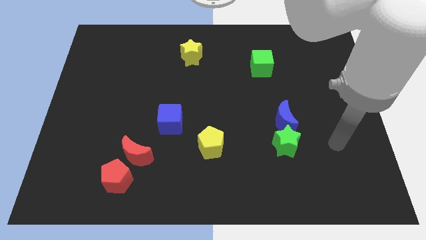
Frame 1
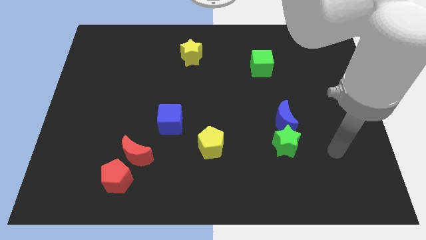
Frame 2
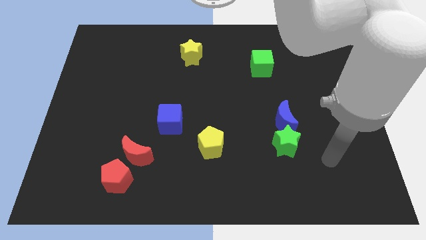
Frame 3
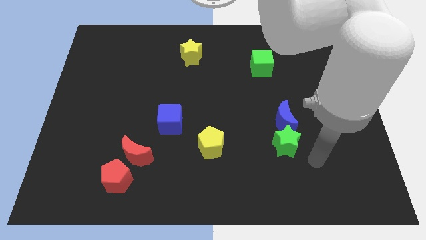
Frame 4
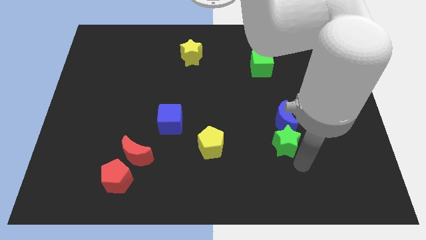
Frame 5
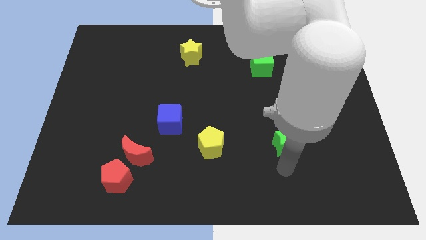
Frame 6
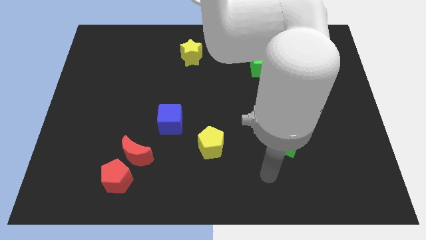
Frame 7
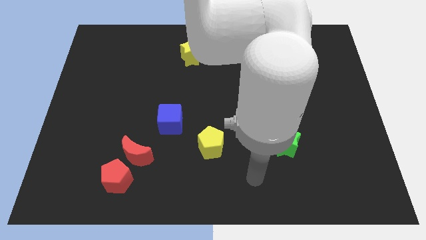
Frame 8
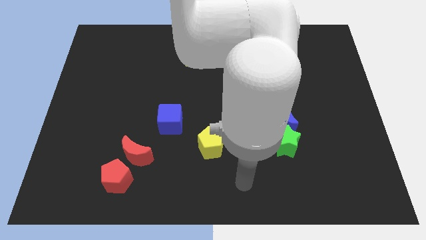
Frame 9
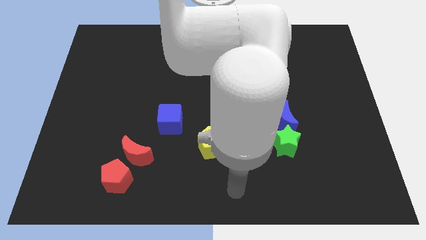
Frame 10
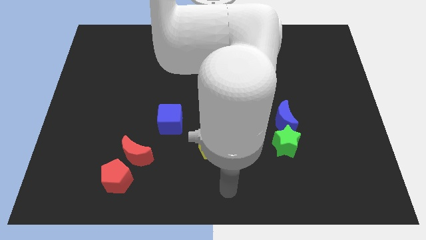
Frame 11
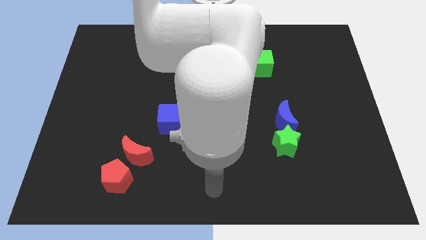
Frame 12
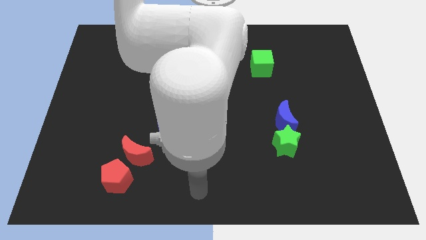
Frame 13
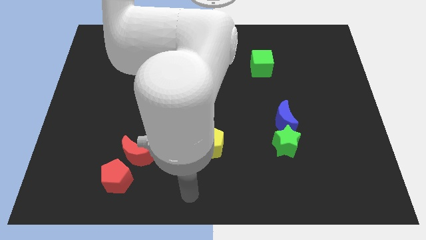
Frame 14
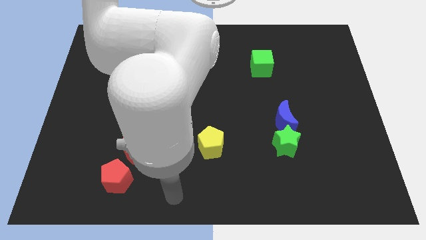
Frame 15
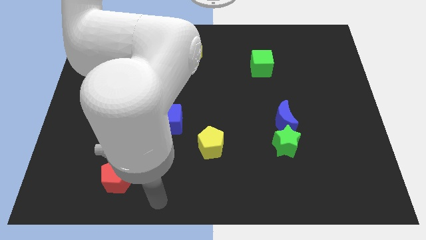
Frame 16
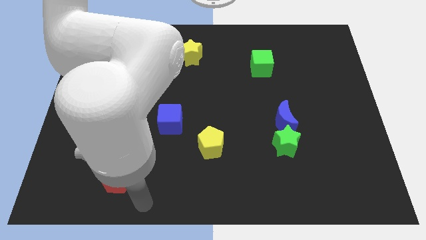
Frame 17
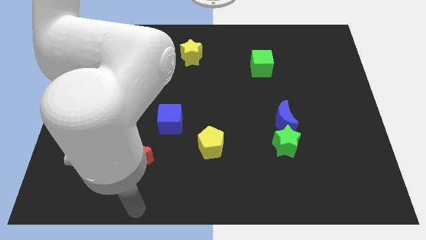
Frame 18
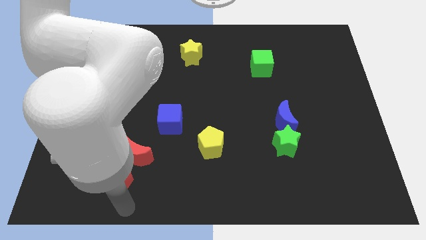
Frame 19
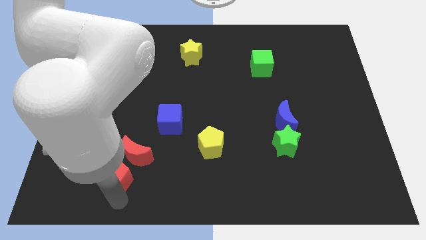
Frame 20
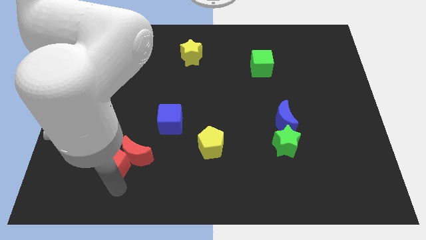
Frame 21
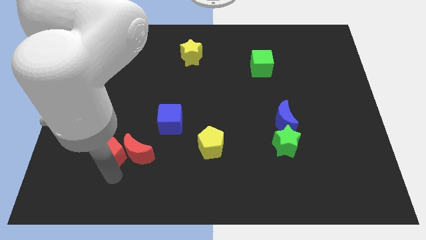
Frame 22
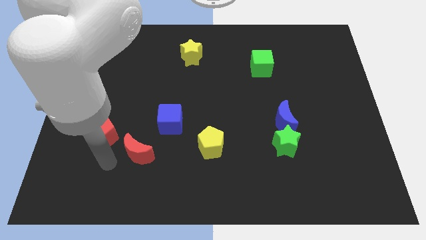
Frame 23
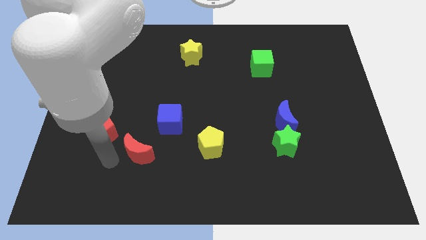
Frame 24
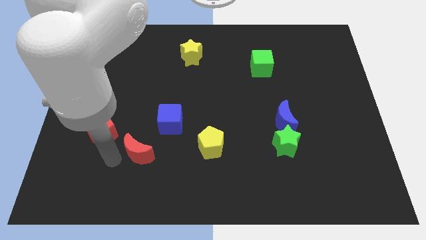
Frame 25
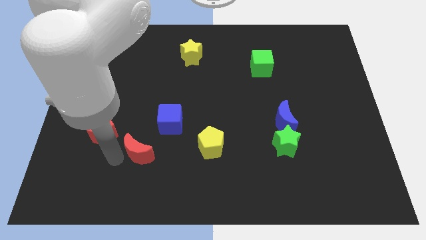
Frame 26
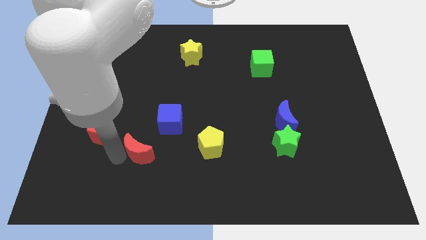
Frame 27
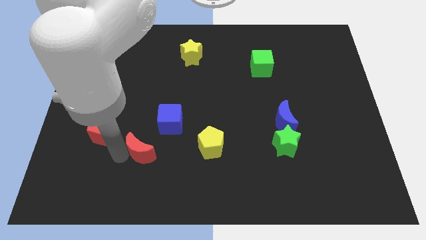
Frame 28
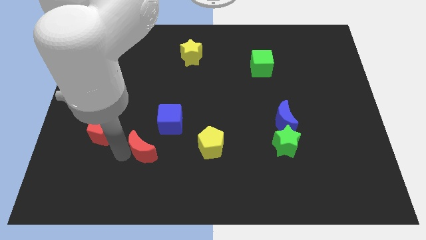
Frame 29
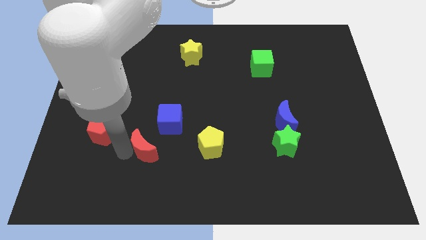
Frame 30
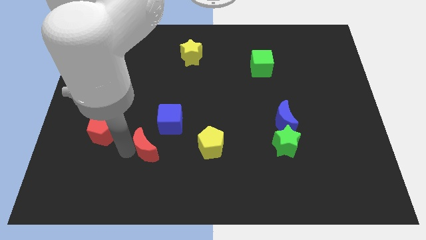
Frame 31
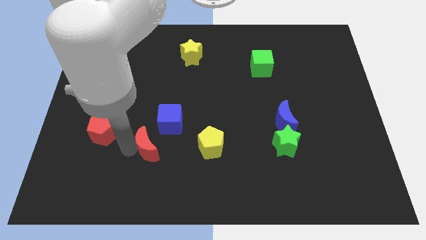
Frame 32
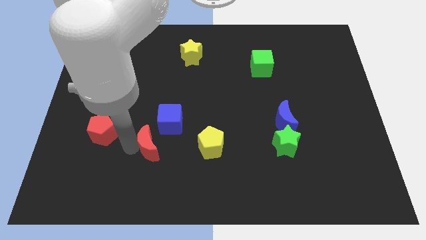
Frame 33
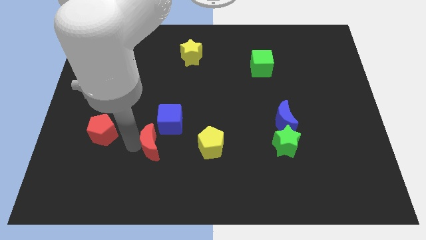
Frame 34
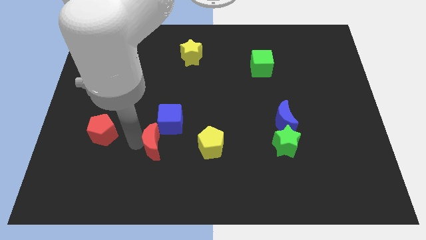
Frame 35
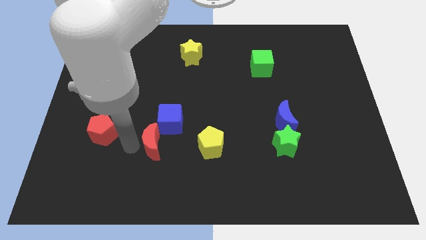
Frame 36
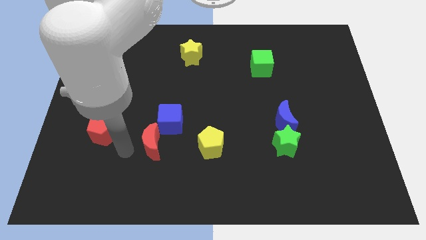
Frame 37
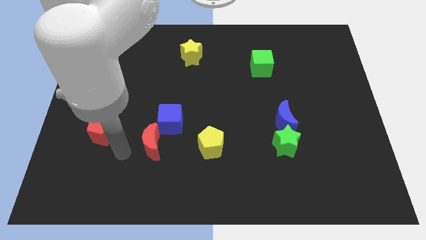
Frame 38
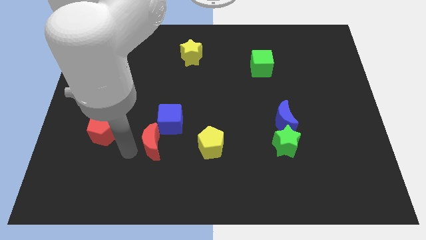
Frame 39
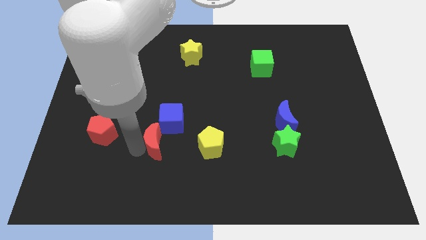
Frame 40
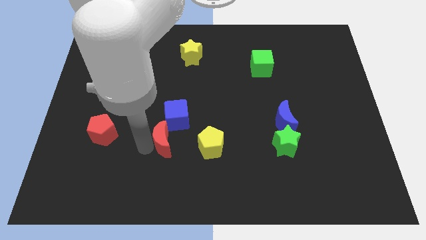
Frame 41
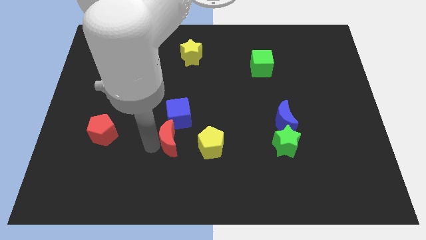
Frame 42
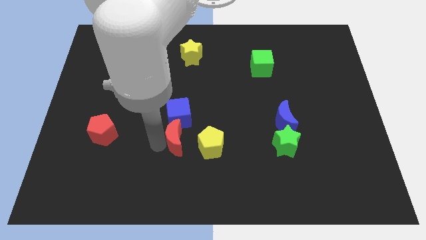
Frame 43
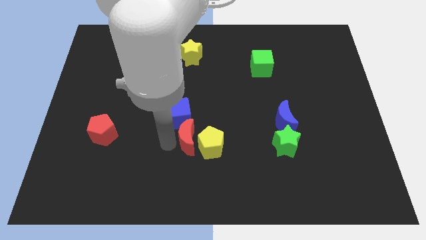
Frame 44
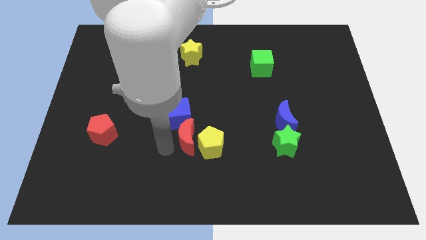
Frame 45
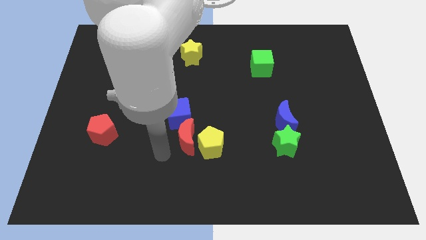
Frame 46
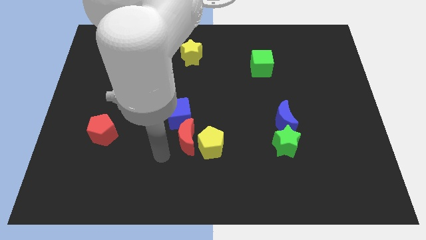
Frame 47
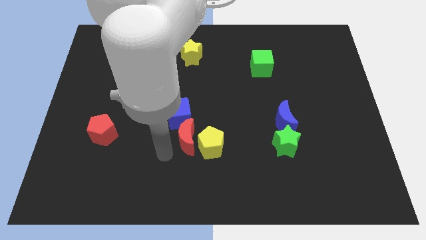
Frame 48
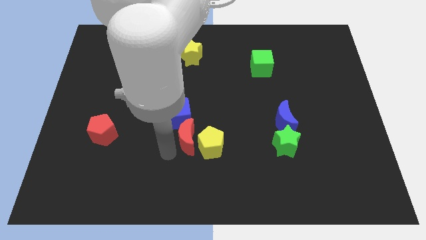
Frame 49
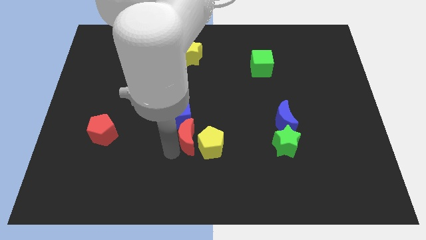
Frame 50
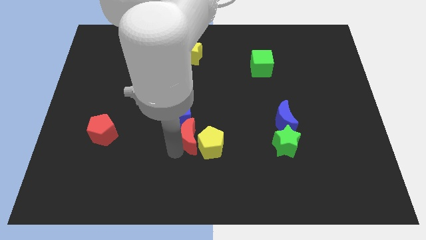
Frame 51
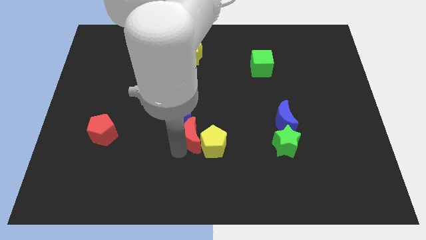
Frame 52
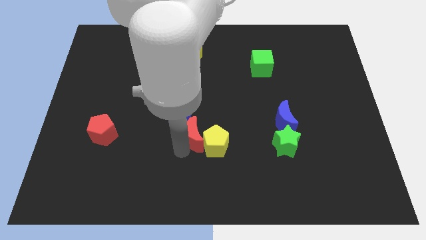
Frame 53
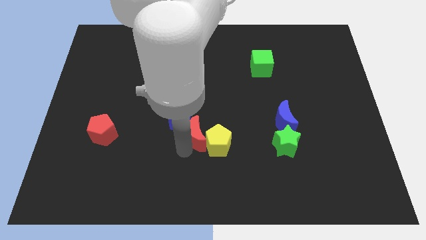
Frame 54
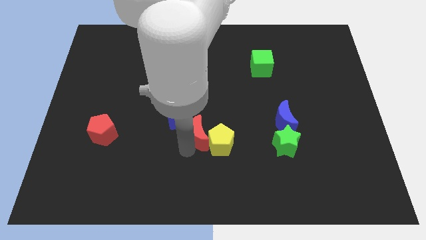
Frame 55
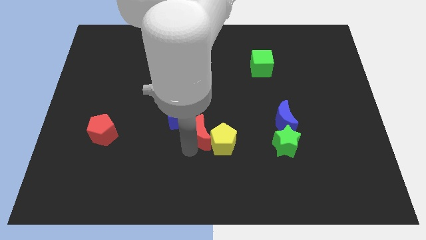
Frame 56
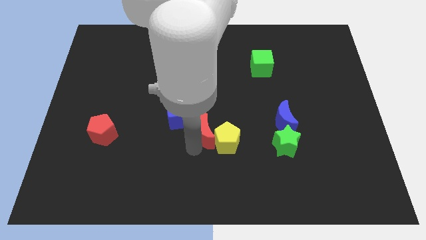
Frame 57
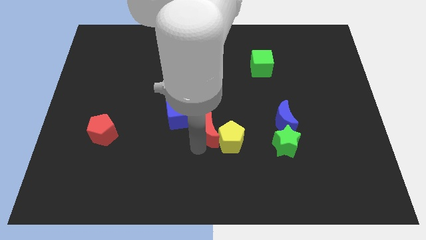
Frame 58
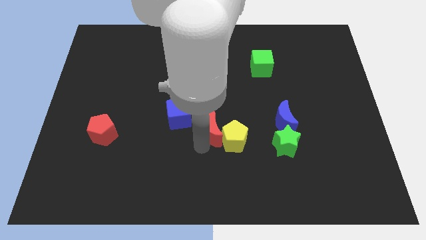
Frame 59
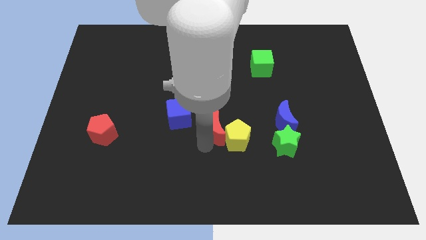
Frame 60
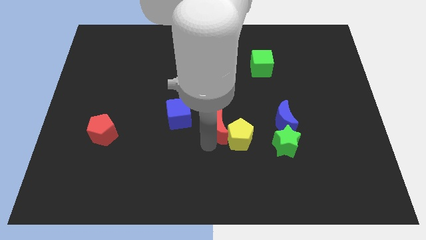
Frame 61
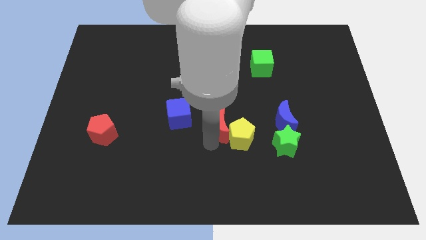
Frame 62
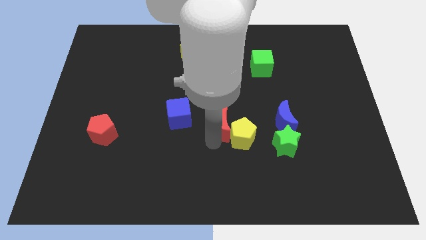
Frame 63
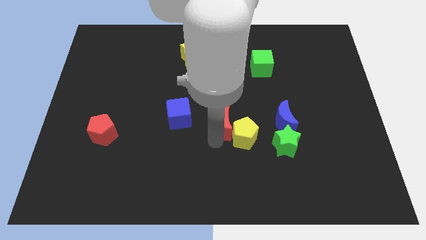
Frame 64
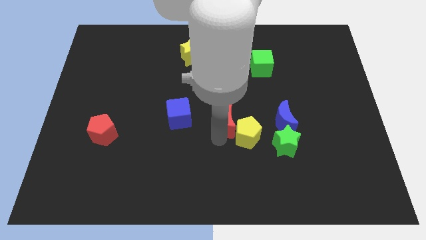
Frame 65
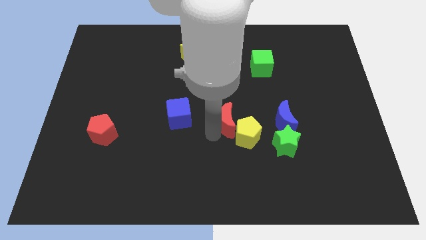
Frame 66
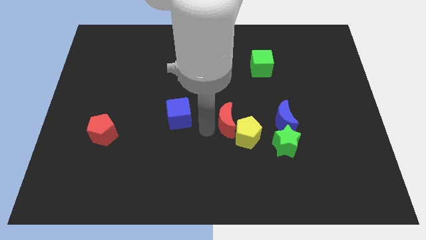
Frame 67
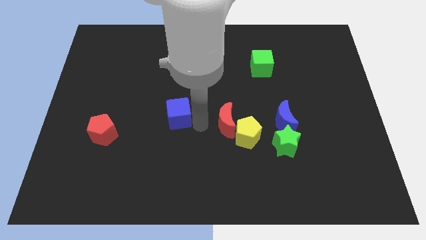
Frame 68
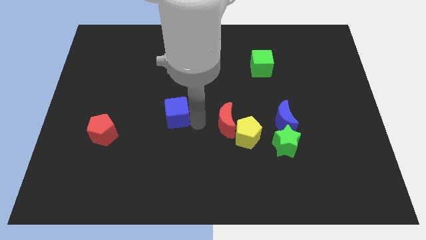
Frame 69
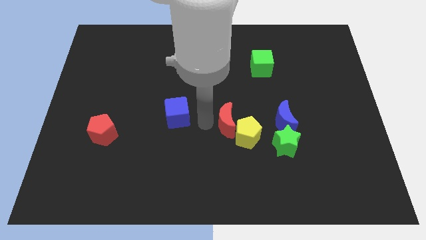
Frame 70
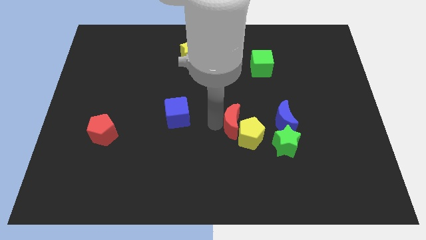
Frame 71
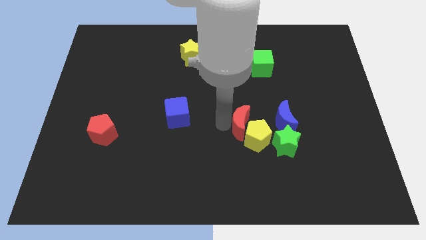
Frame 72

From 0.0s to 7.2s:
move the red moon to the top left of the green star

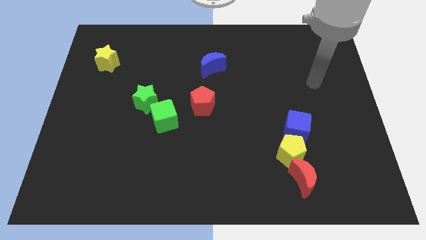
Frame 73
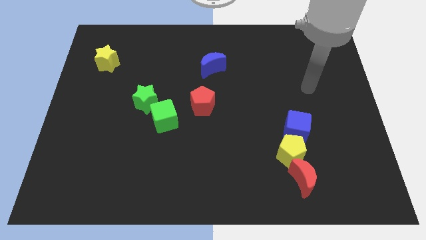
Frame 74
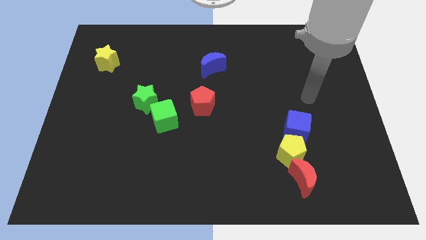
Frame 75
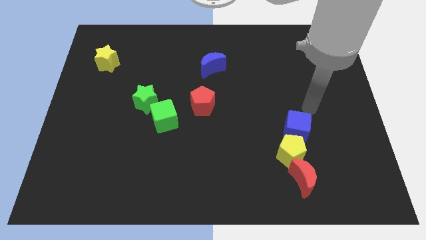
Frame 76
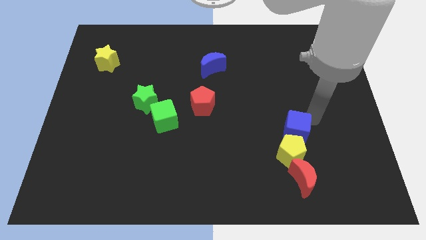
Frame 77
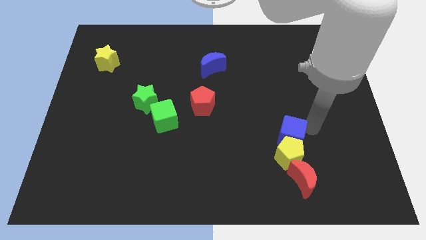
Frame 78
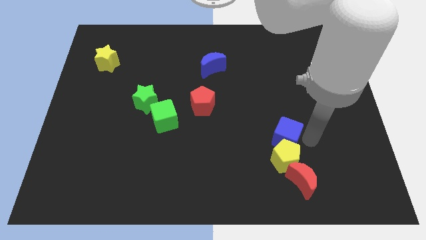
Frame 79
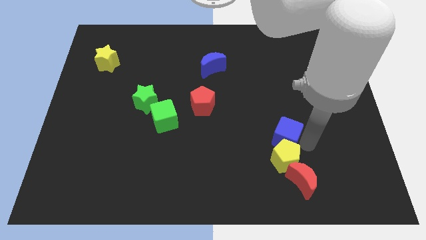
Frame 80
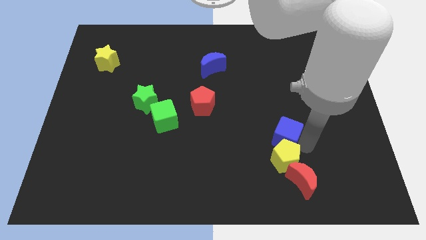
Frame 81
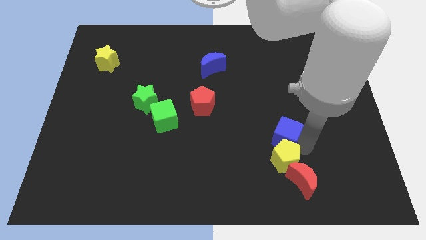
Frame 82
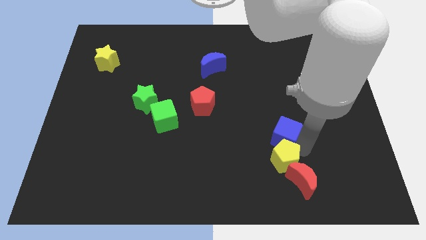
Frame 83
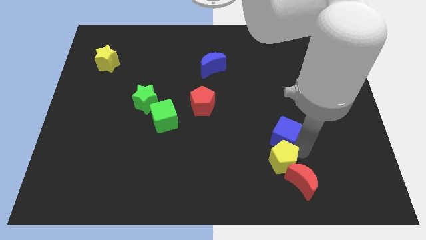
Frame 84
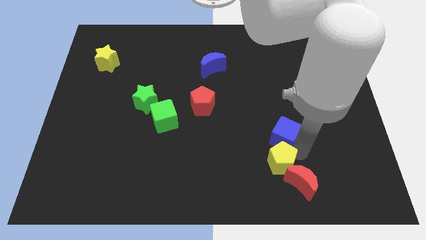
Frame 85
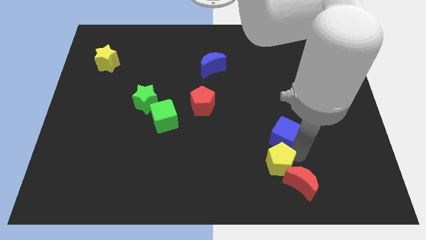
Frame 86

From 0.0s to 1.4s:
slide the yellow pentagon to the left of the red moon
